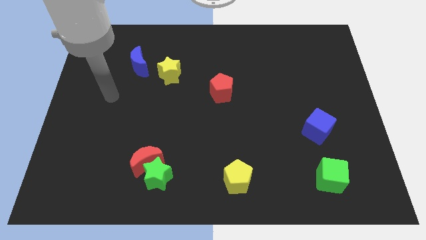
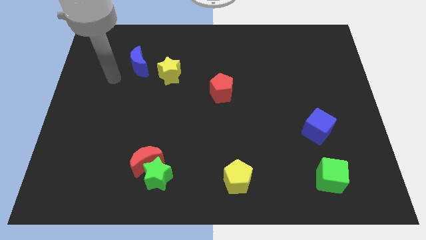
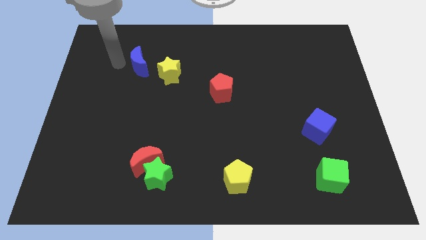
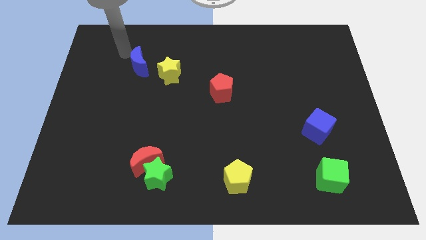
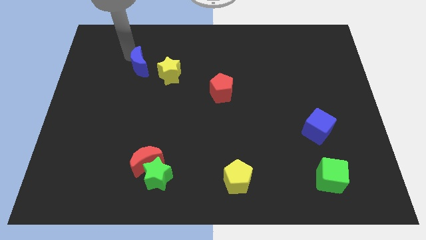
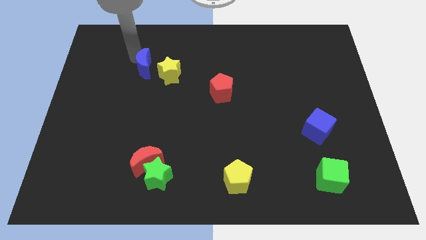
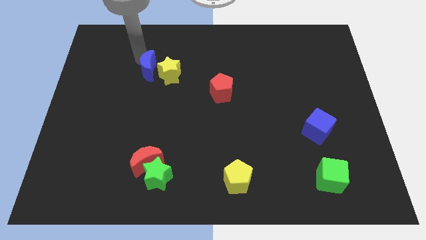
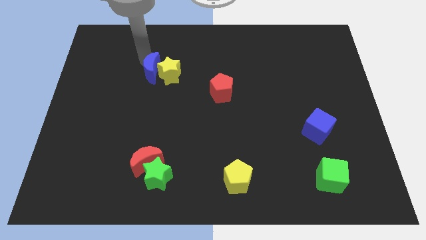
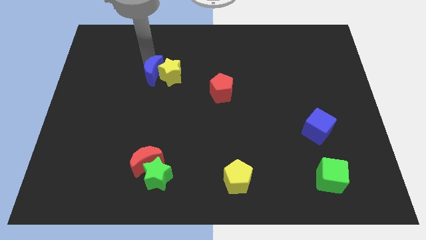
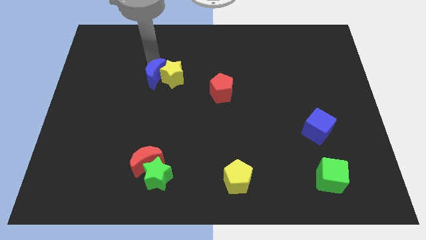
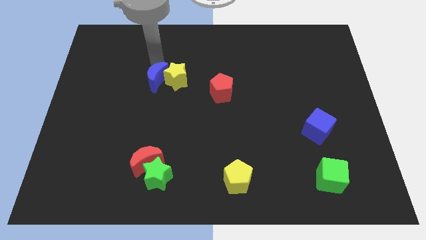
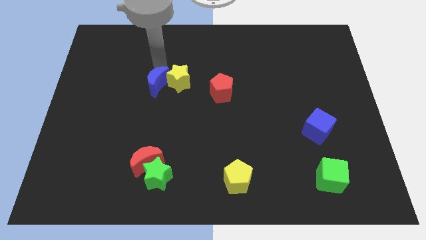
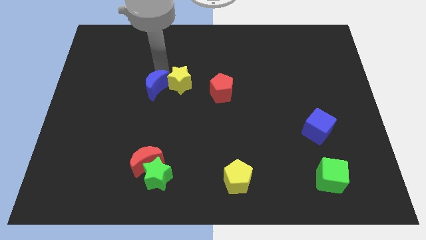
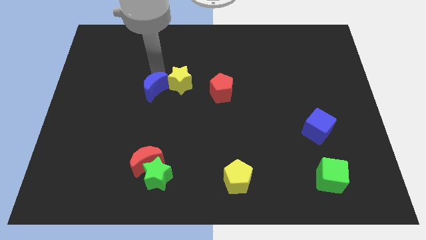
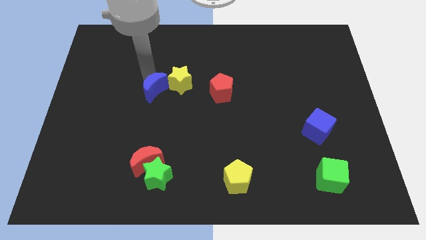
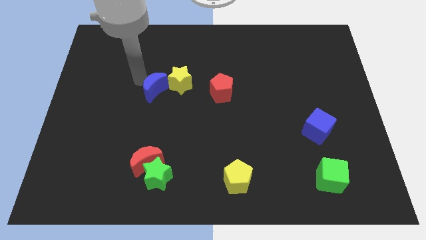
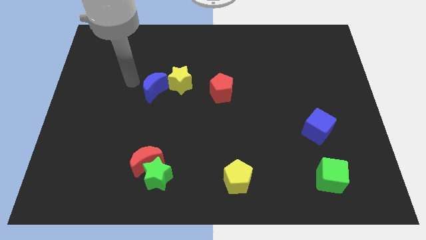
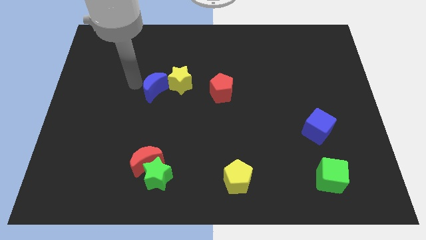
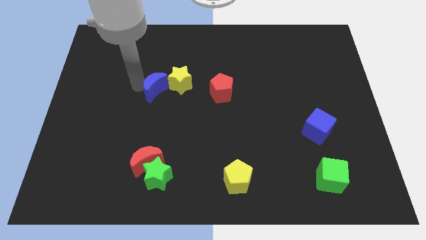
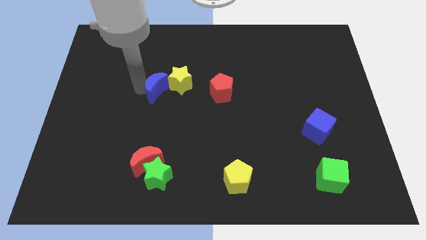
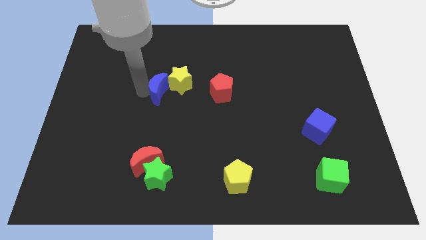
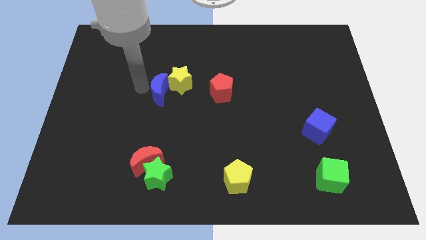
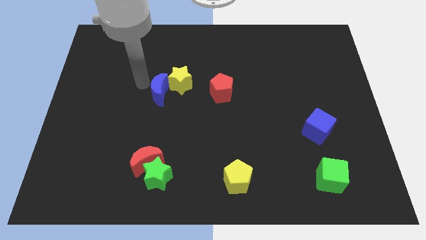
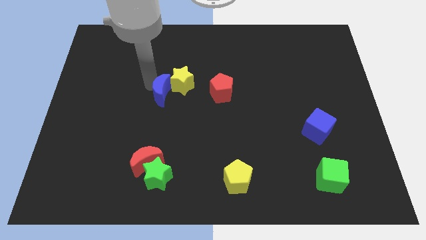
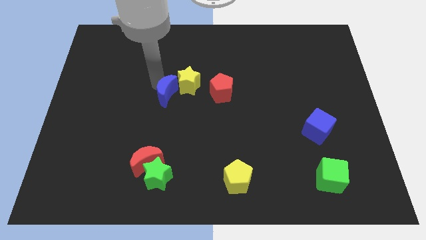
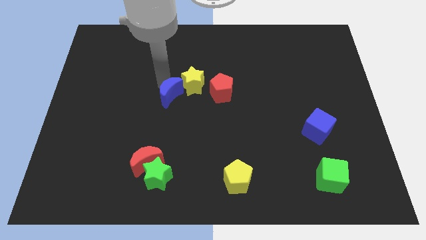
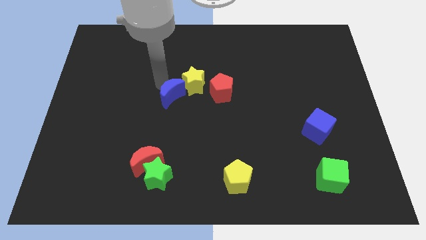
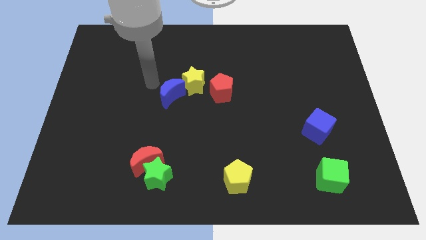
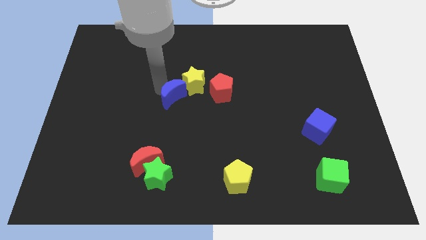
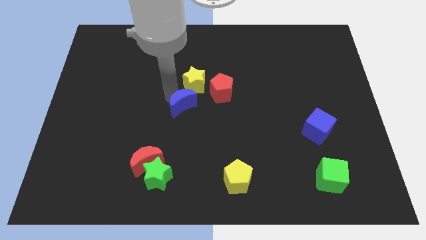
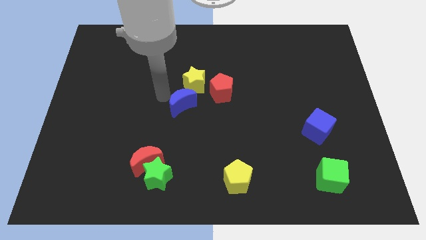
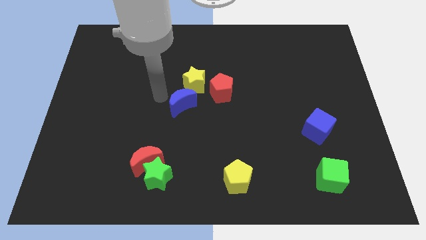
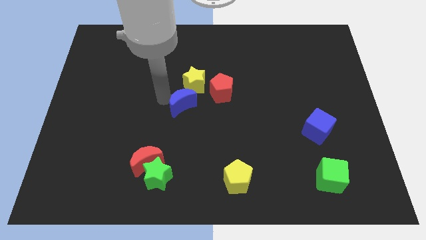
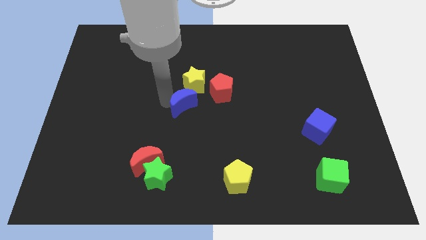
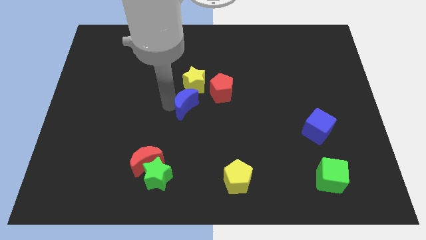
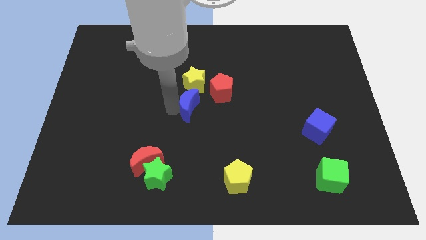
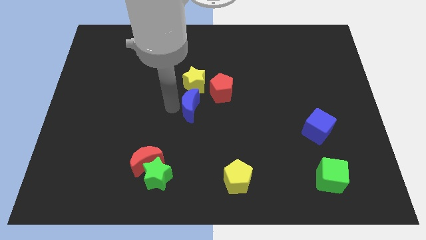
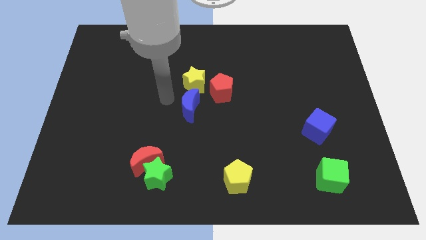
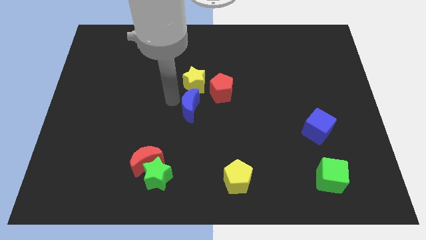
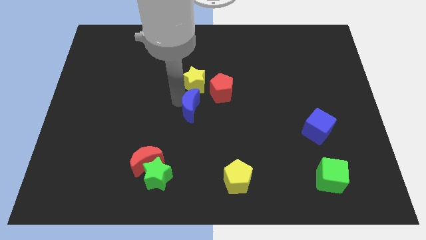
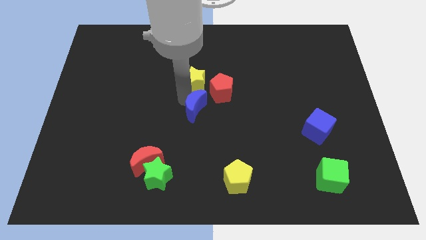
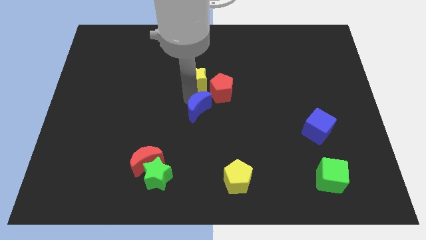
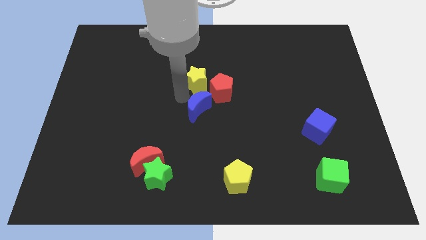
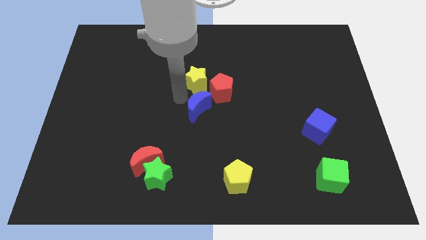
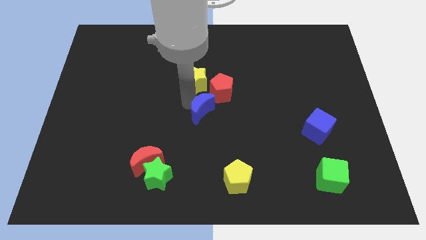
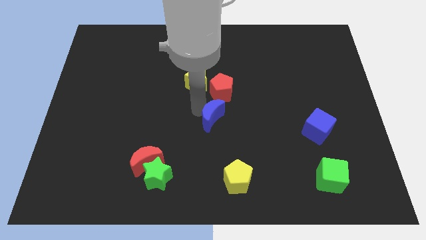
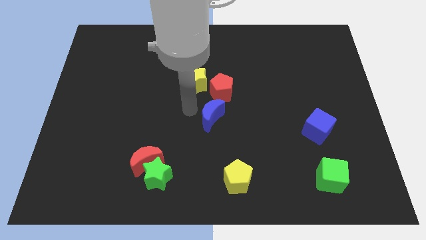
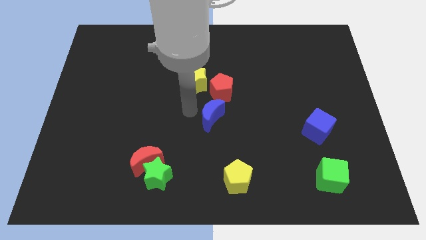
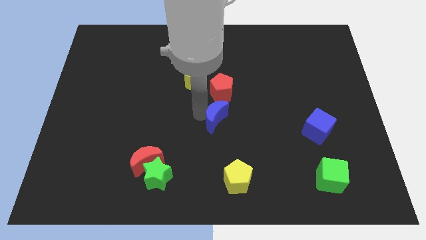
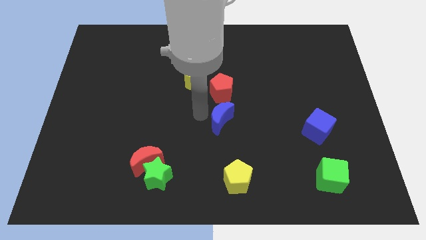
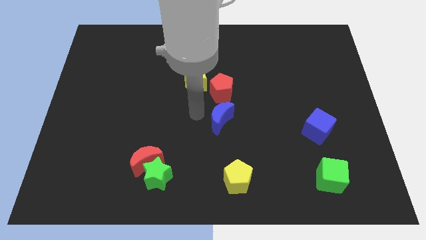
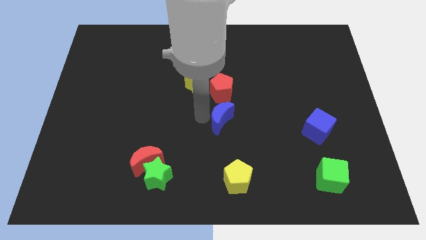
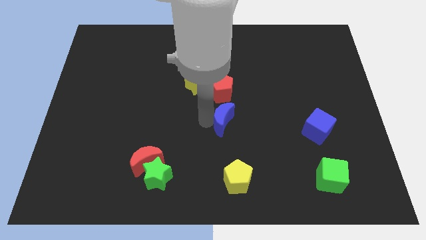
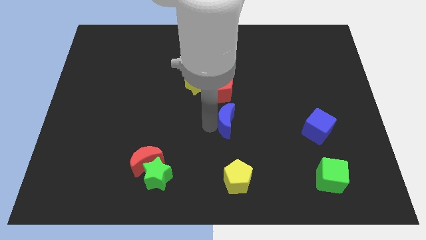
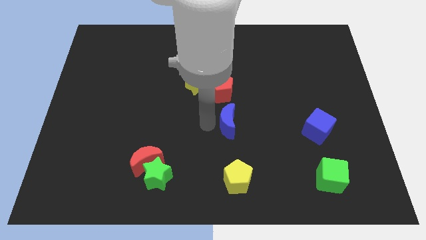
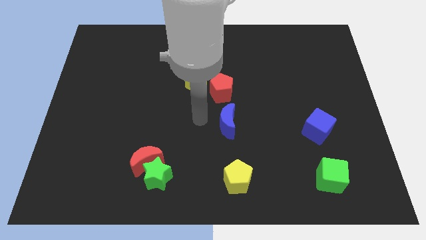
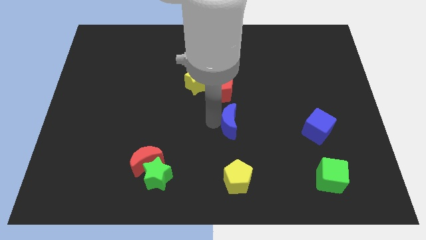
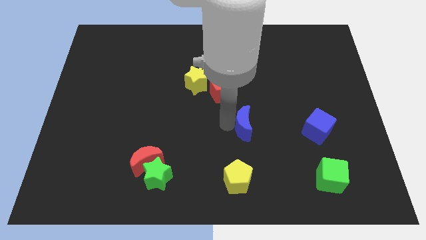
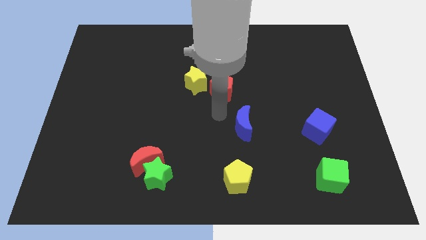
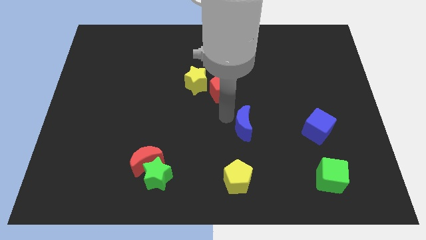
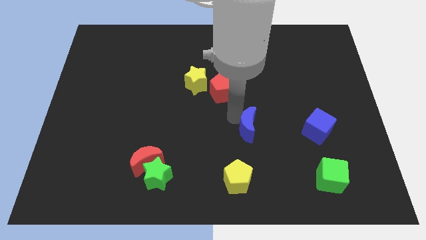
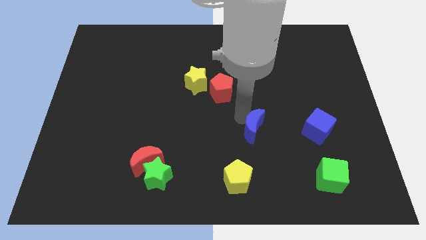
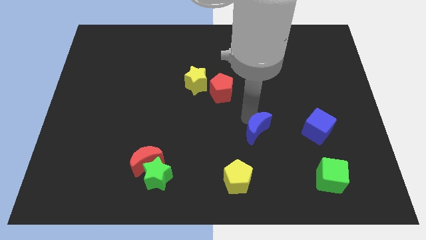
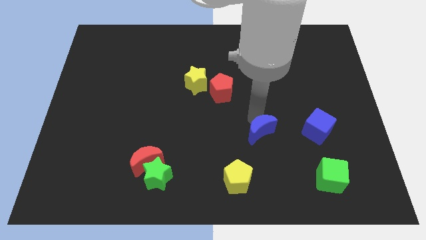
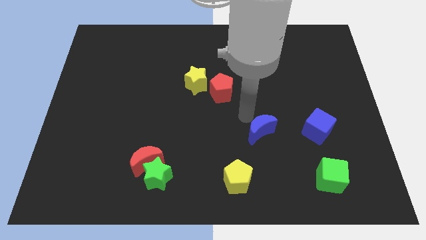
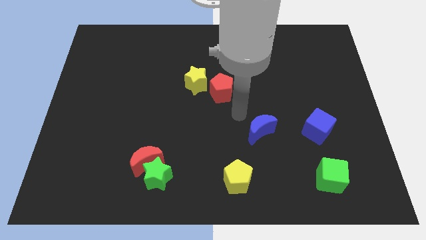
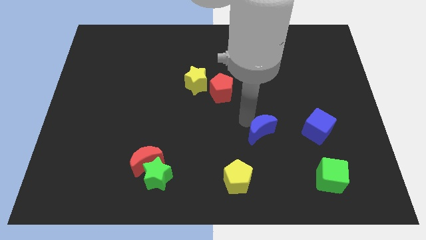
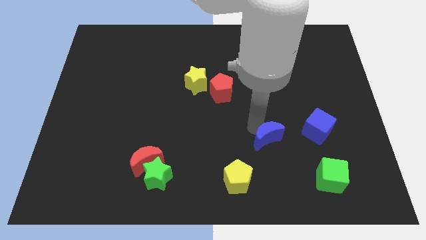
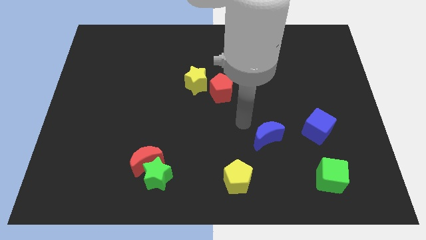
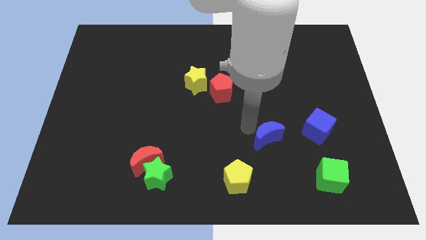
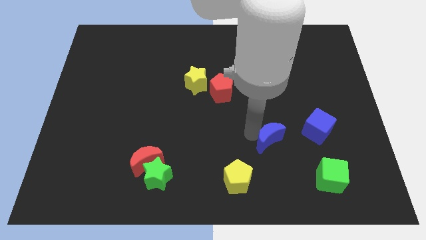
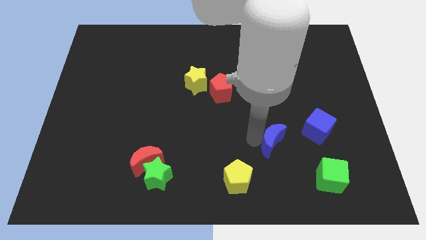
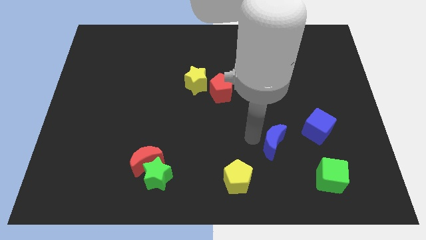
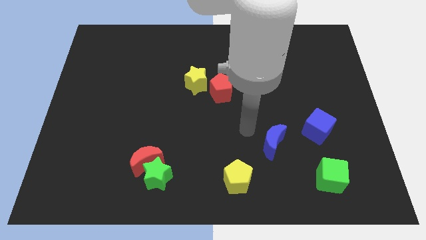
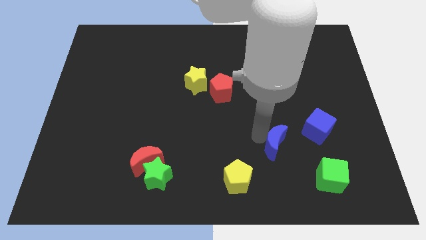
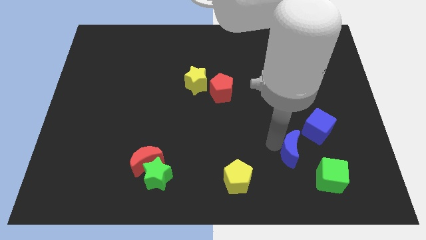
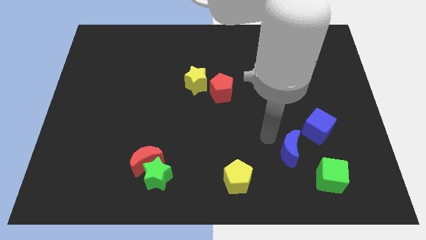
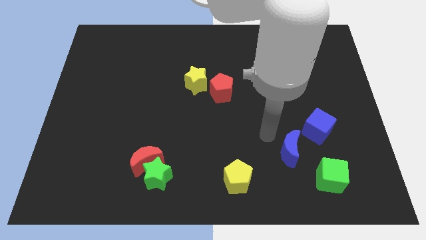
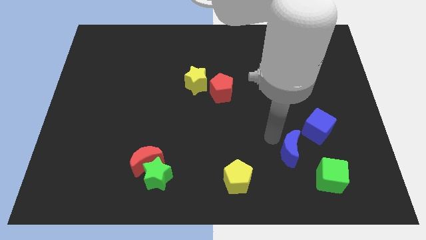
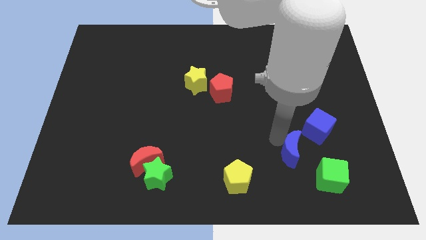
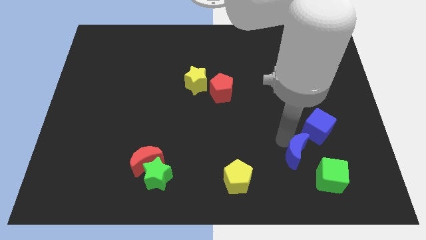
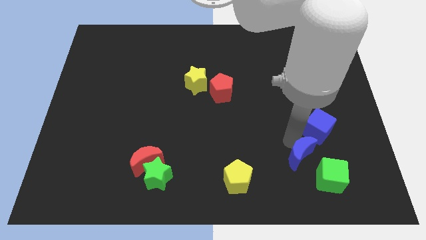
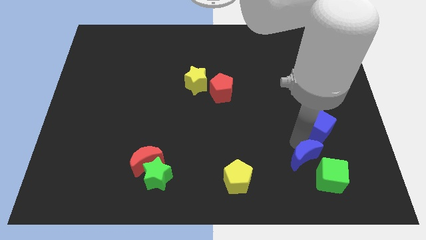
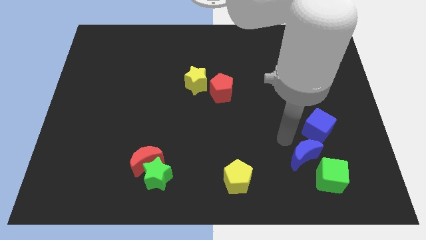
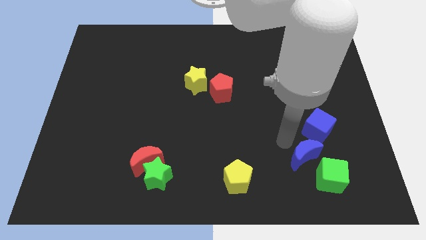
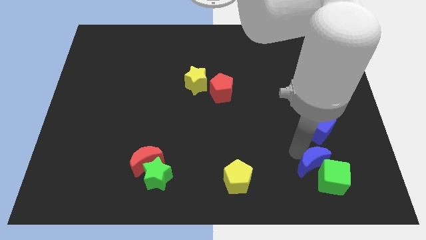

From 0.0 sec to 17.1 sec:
put the blue moon close to the green cube
